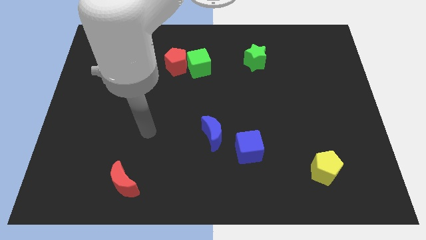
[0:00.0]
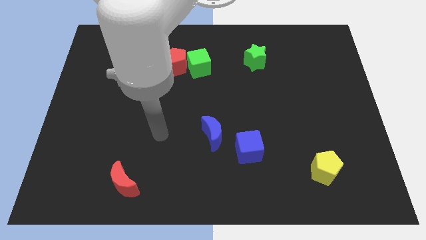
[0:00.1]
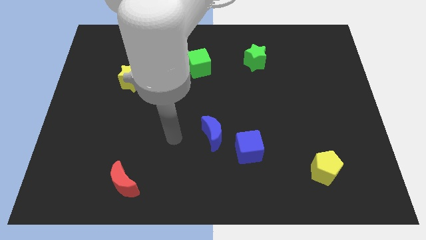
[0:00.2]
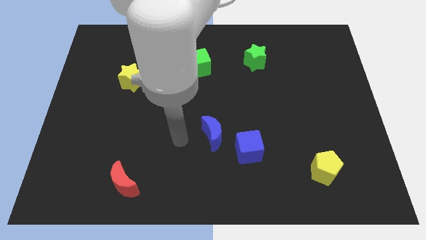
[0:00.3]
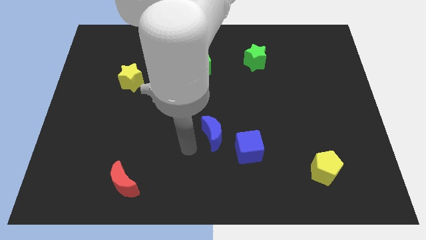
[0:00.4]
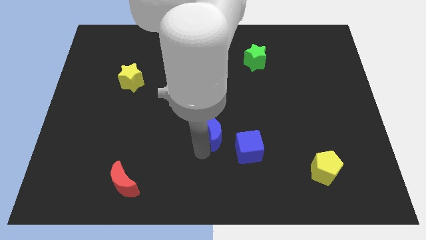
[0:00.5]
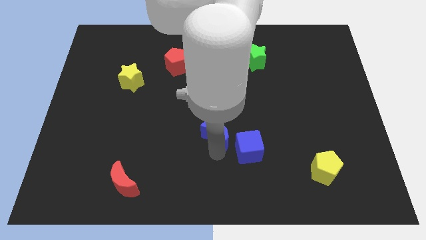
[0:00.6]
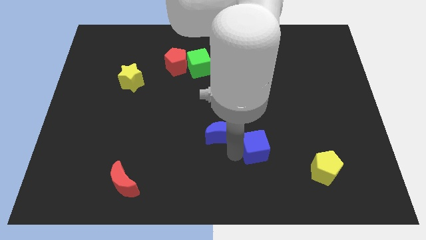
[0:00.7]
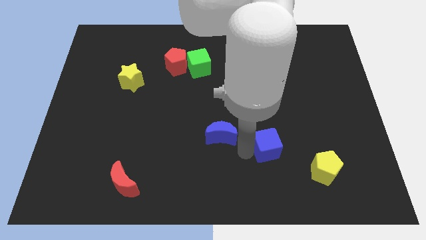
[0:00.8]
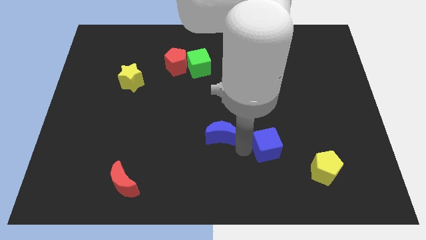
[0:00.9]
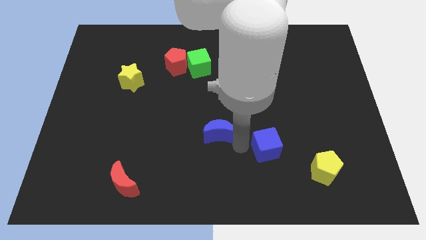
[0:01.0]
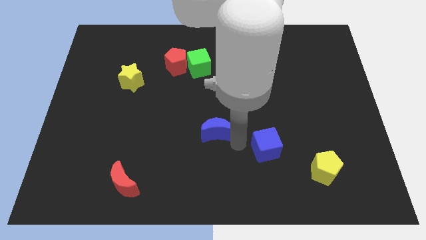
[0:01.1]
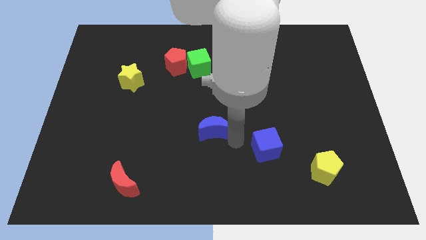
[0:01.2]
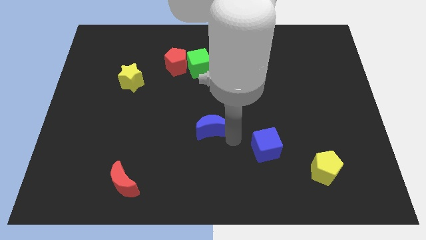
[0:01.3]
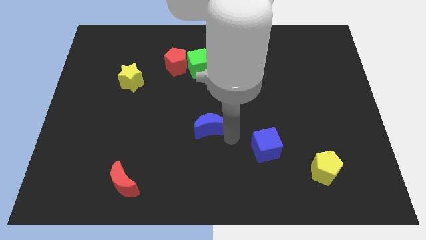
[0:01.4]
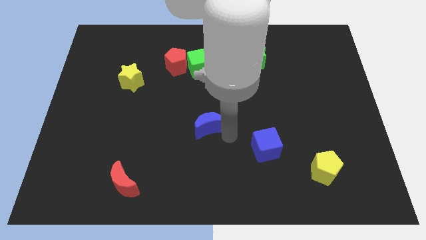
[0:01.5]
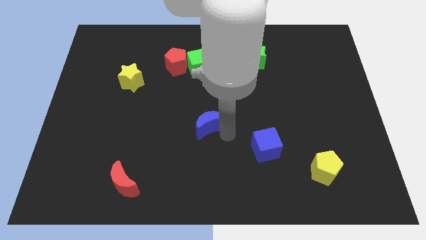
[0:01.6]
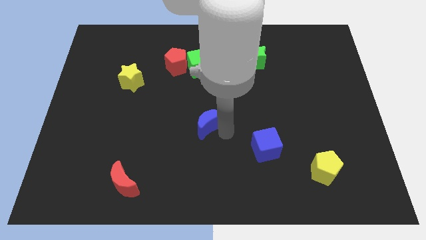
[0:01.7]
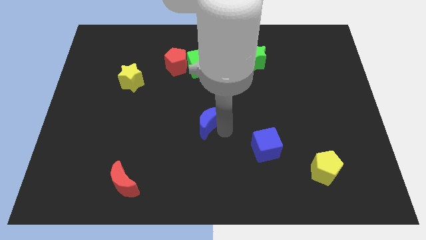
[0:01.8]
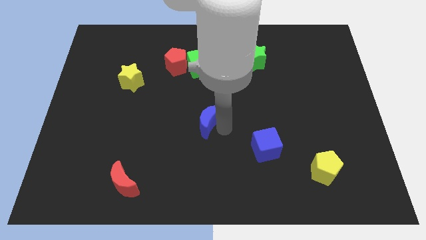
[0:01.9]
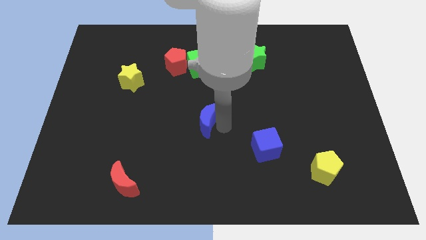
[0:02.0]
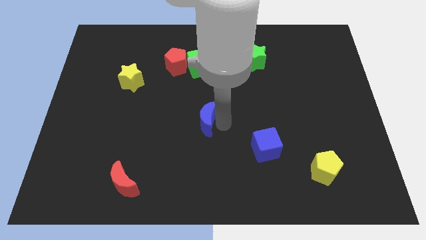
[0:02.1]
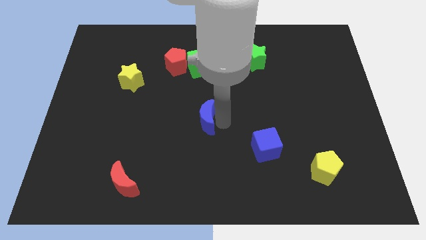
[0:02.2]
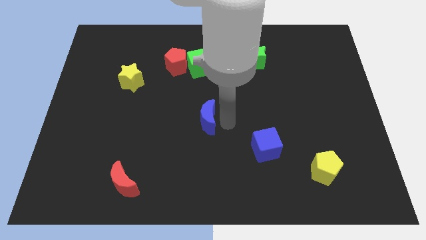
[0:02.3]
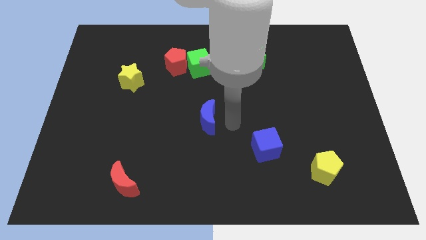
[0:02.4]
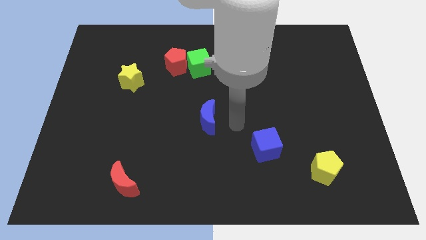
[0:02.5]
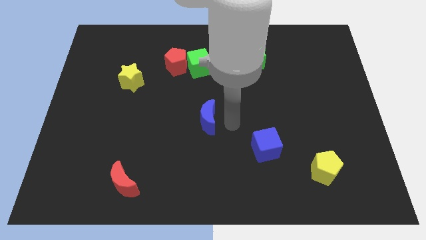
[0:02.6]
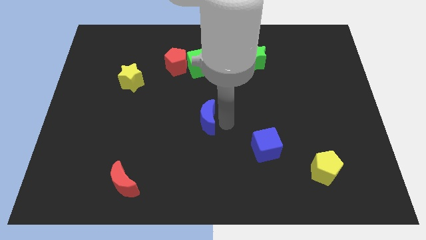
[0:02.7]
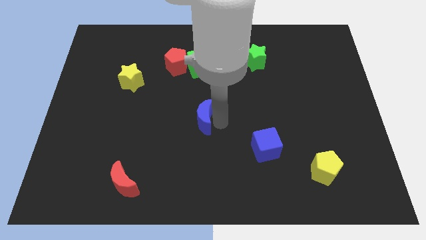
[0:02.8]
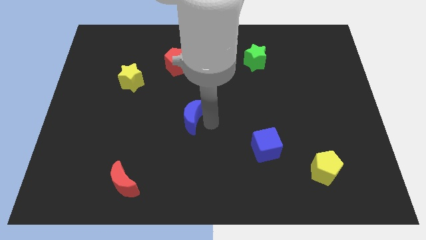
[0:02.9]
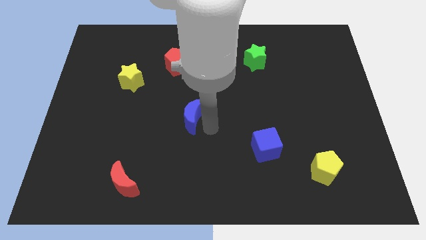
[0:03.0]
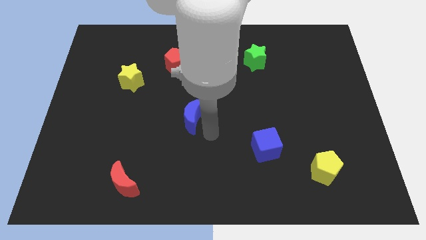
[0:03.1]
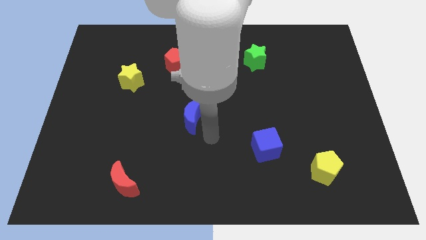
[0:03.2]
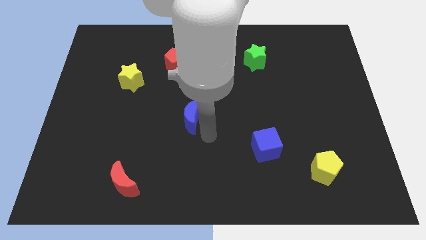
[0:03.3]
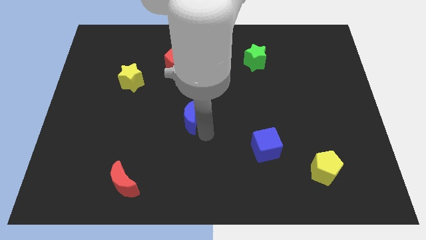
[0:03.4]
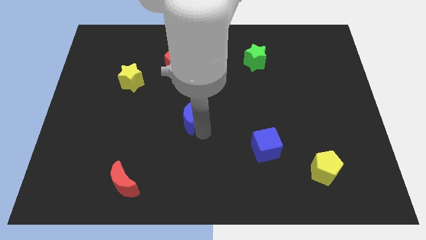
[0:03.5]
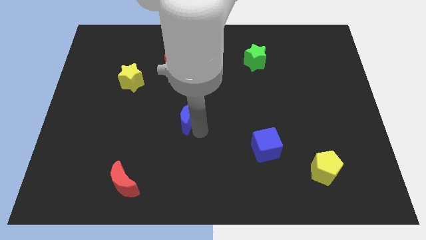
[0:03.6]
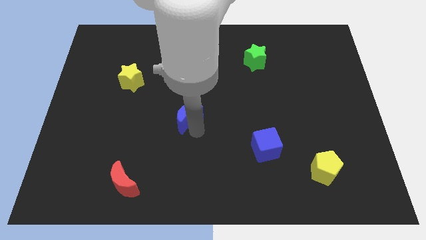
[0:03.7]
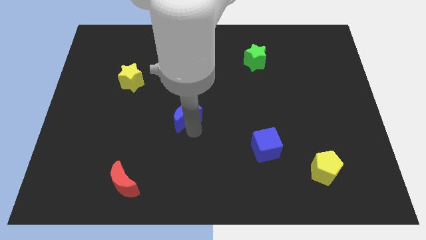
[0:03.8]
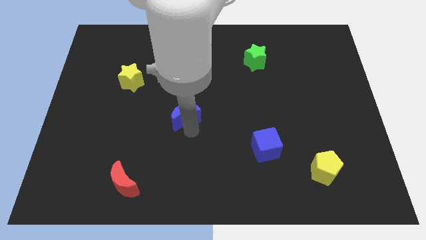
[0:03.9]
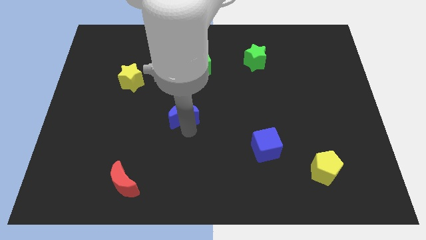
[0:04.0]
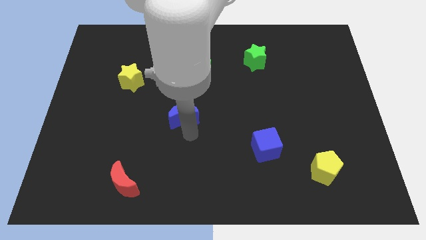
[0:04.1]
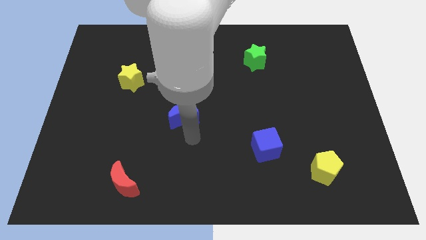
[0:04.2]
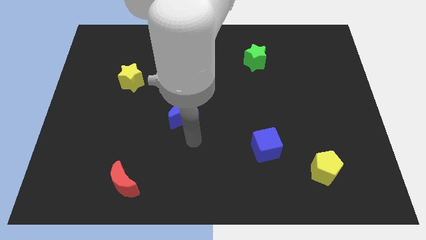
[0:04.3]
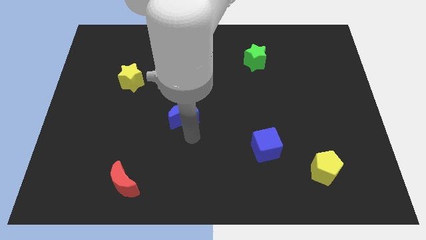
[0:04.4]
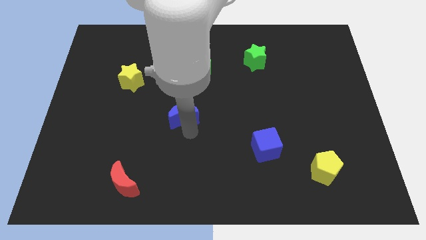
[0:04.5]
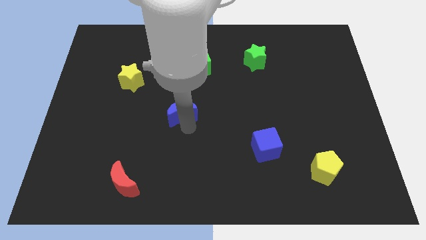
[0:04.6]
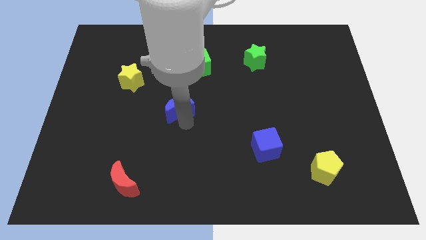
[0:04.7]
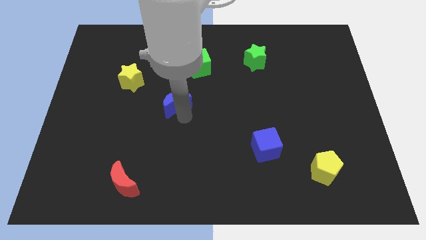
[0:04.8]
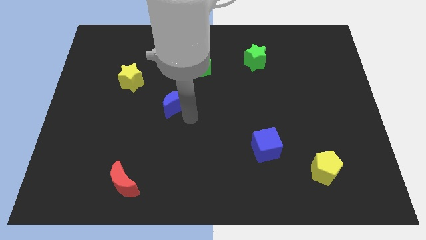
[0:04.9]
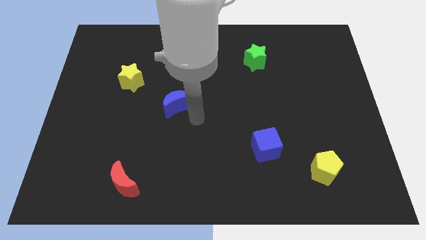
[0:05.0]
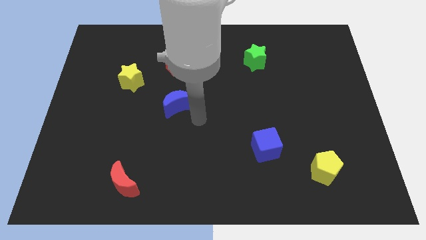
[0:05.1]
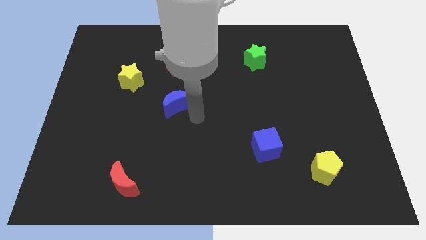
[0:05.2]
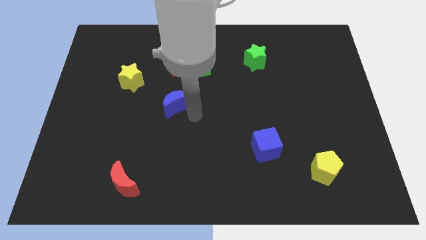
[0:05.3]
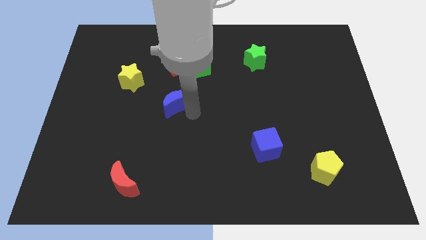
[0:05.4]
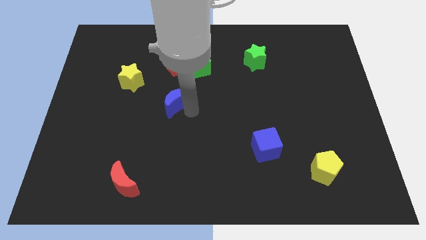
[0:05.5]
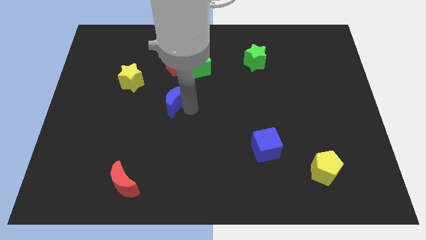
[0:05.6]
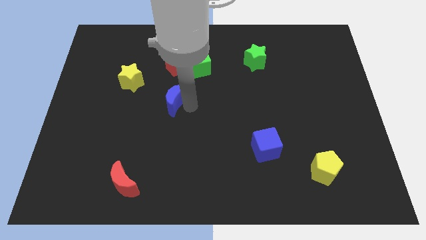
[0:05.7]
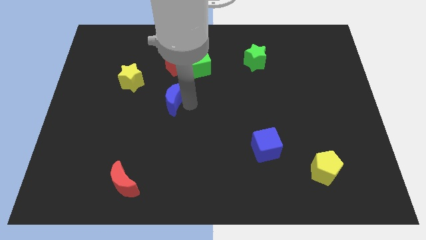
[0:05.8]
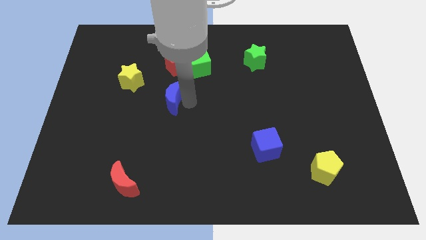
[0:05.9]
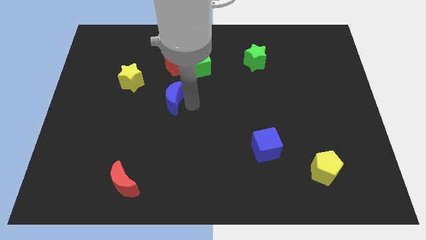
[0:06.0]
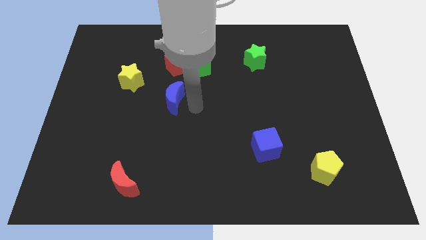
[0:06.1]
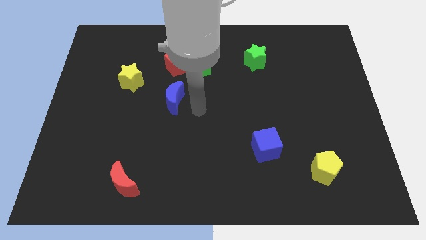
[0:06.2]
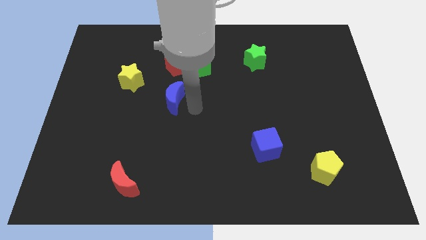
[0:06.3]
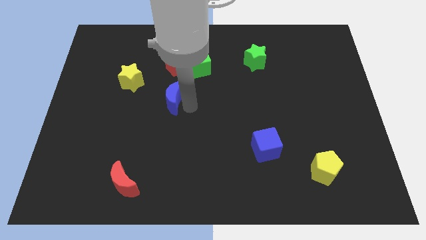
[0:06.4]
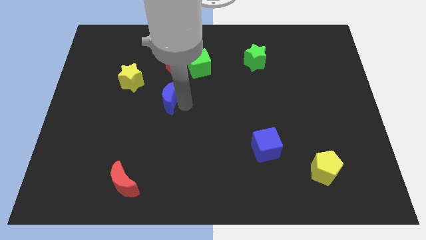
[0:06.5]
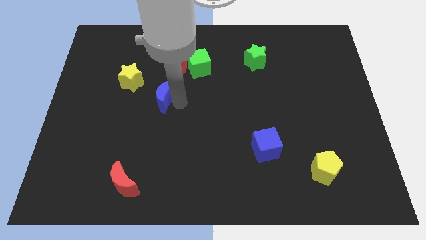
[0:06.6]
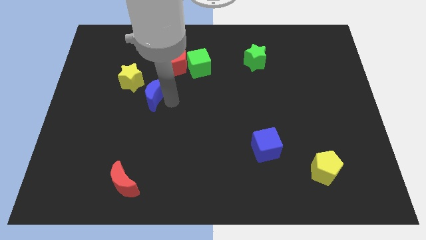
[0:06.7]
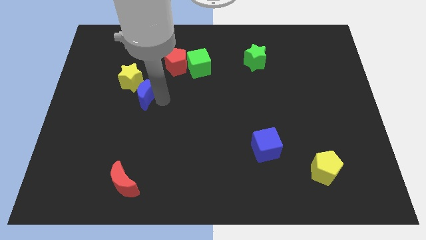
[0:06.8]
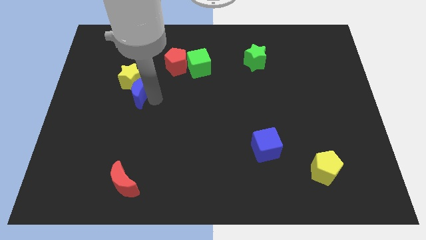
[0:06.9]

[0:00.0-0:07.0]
put the blue moon close to the yellow star
